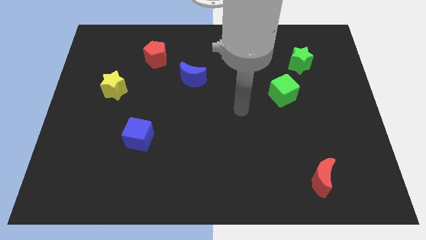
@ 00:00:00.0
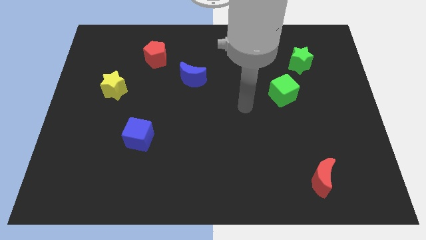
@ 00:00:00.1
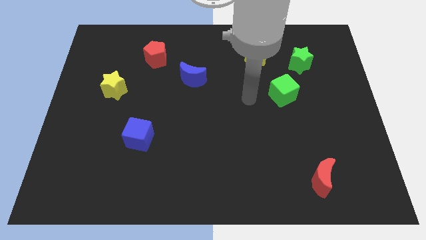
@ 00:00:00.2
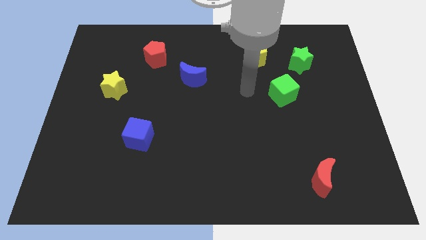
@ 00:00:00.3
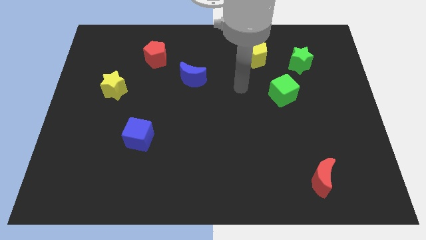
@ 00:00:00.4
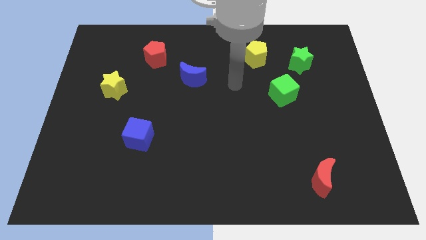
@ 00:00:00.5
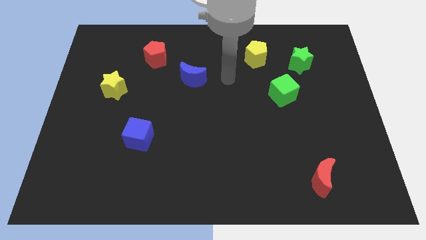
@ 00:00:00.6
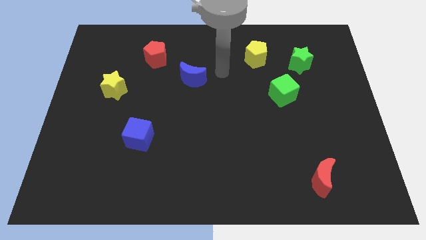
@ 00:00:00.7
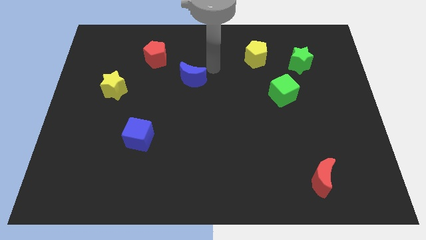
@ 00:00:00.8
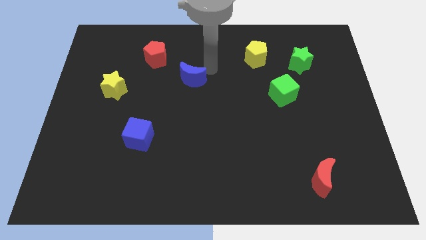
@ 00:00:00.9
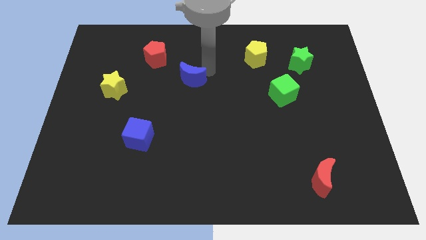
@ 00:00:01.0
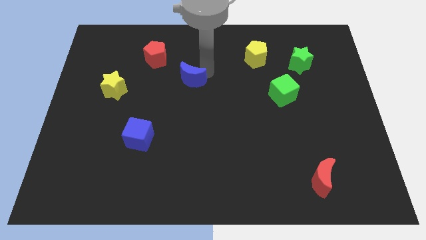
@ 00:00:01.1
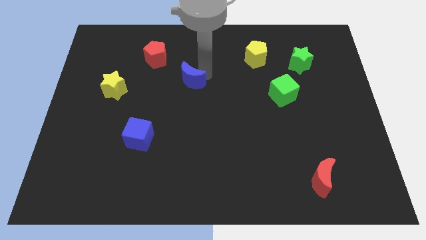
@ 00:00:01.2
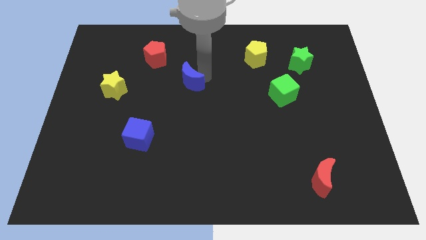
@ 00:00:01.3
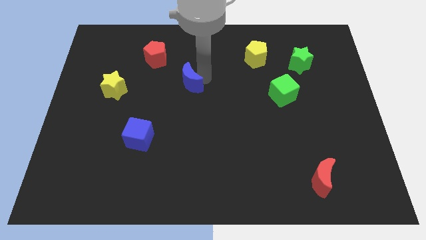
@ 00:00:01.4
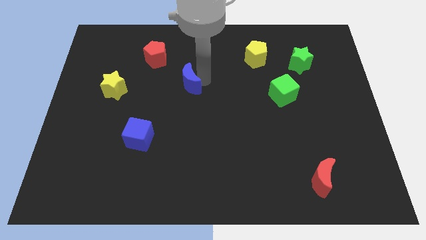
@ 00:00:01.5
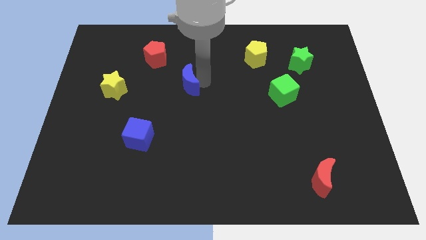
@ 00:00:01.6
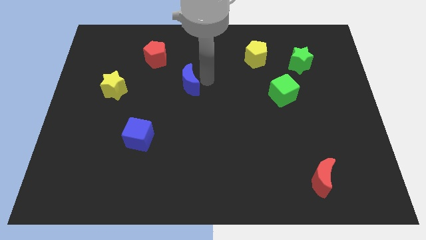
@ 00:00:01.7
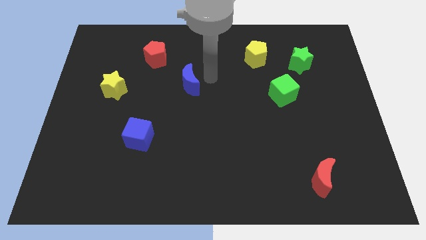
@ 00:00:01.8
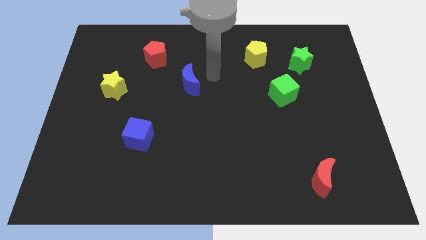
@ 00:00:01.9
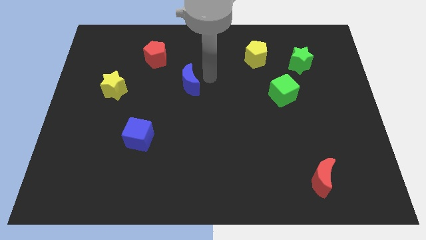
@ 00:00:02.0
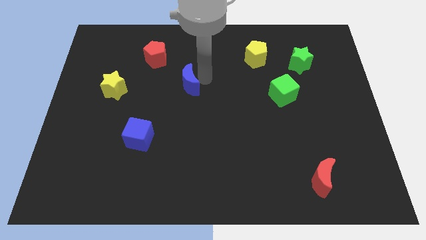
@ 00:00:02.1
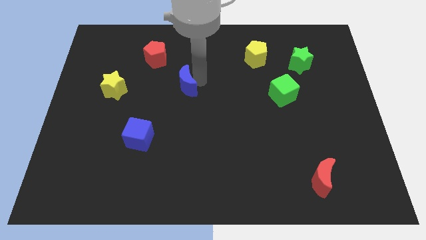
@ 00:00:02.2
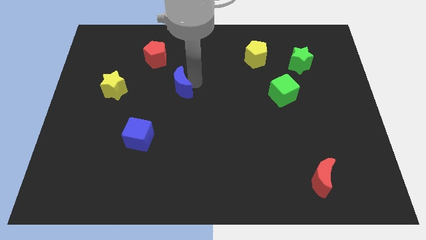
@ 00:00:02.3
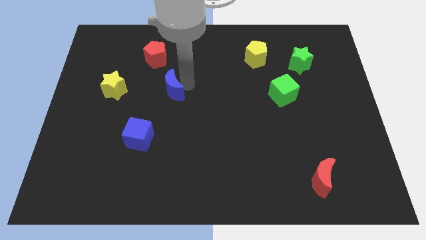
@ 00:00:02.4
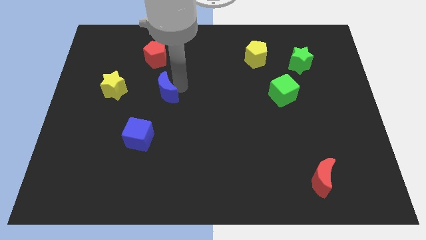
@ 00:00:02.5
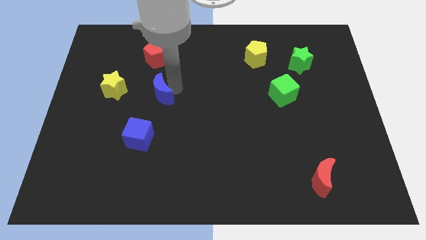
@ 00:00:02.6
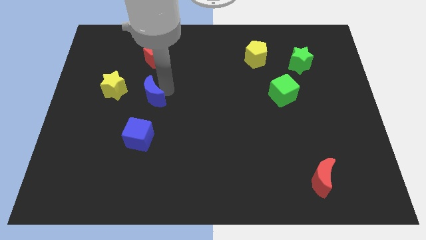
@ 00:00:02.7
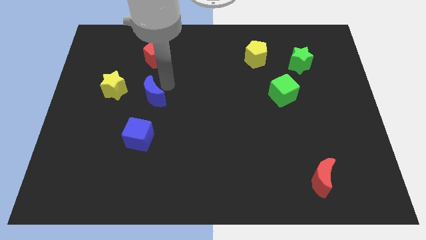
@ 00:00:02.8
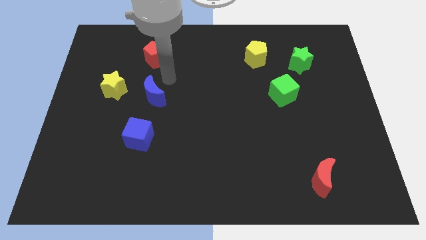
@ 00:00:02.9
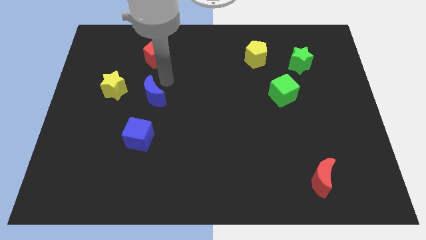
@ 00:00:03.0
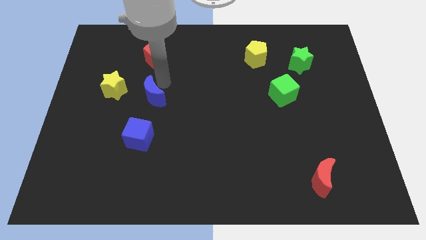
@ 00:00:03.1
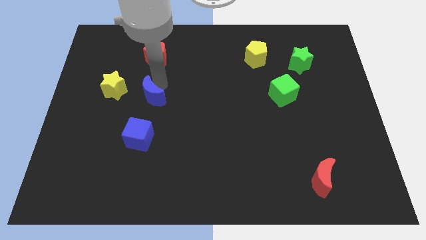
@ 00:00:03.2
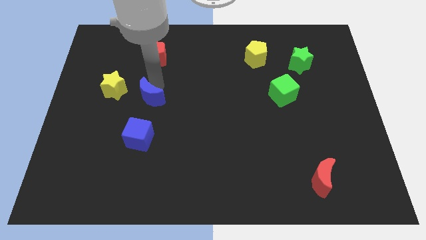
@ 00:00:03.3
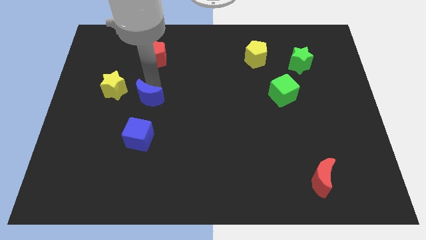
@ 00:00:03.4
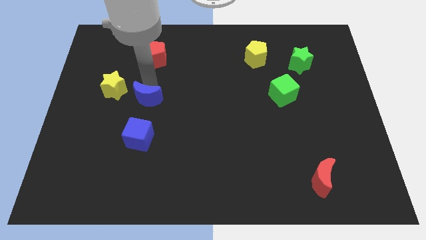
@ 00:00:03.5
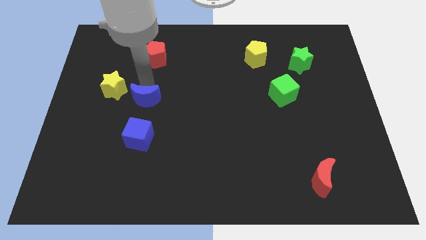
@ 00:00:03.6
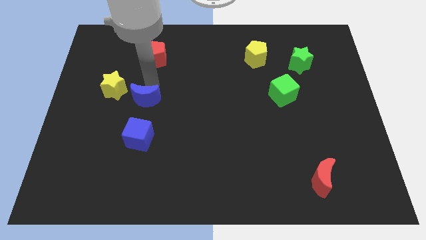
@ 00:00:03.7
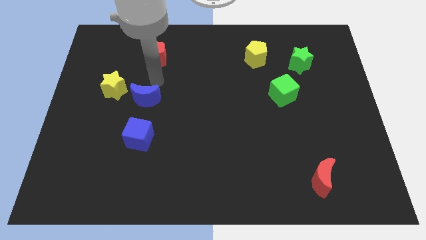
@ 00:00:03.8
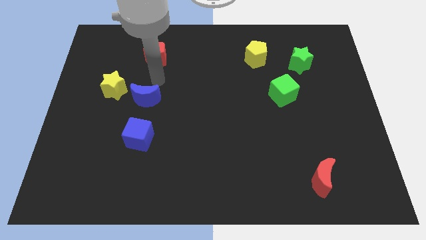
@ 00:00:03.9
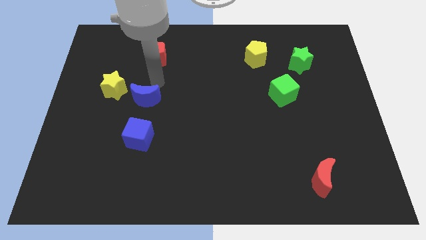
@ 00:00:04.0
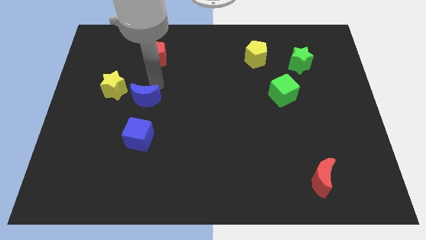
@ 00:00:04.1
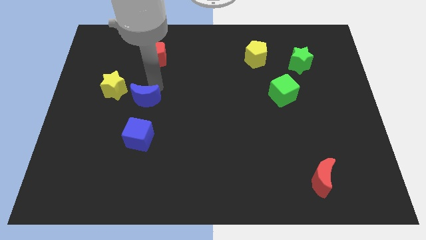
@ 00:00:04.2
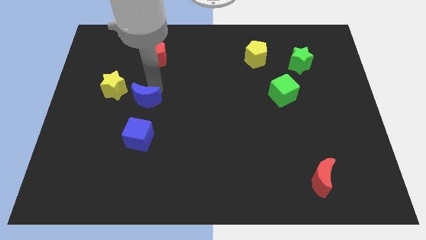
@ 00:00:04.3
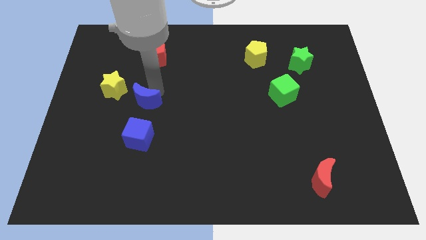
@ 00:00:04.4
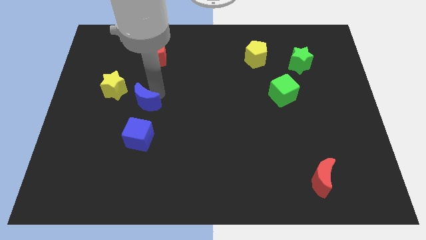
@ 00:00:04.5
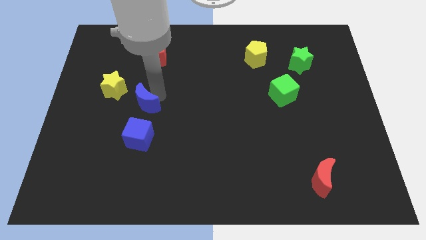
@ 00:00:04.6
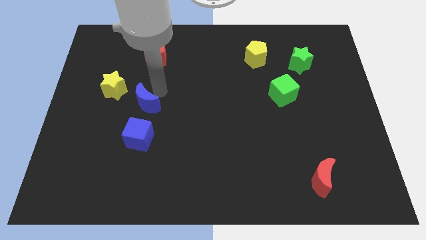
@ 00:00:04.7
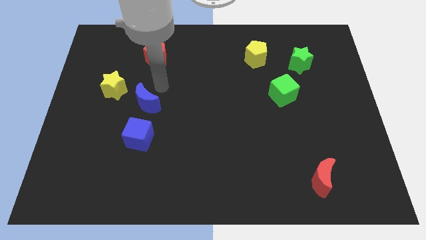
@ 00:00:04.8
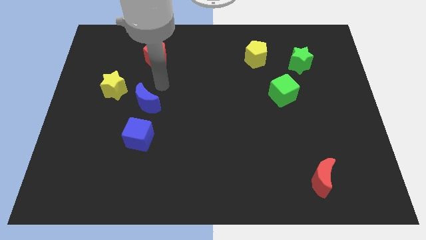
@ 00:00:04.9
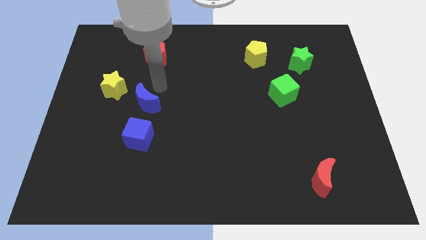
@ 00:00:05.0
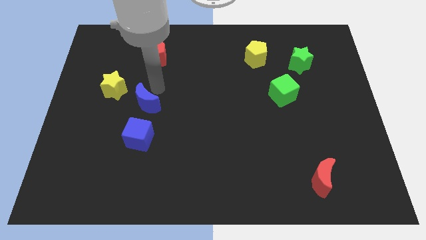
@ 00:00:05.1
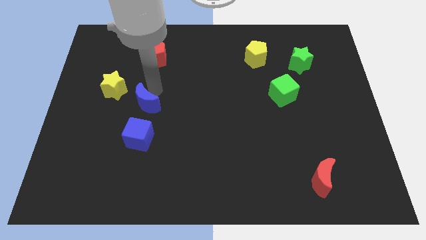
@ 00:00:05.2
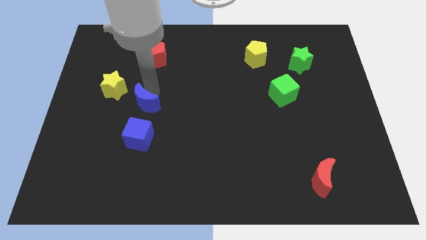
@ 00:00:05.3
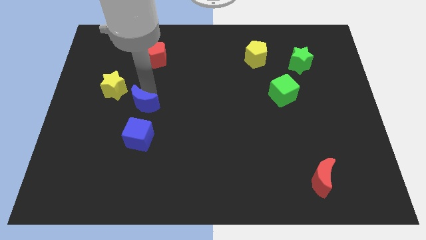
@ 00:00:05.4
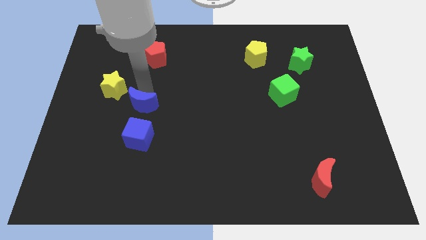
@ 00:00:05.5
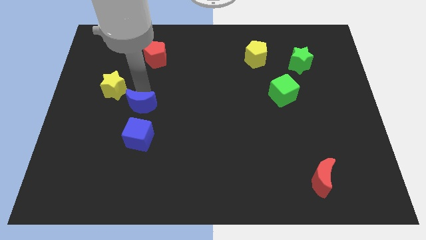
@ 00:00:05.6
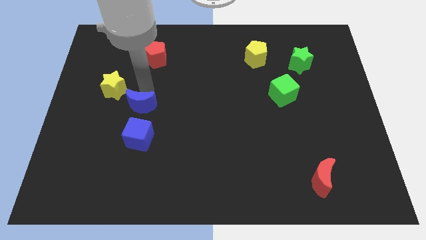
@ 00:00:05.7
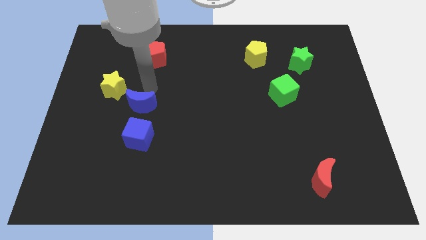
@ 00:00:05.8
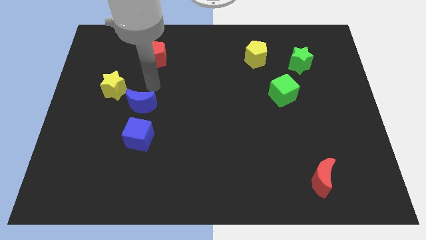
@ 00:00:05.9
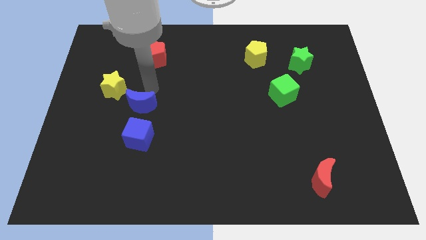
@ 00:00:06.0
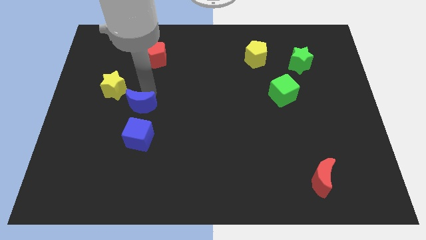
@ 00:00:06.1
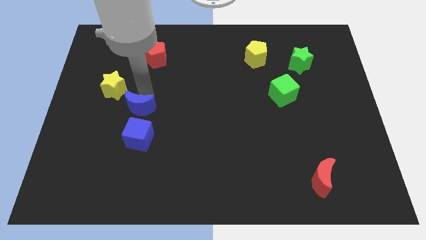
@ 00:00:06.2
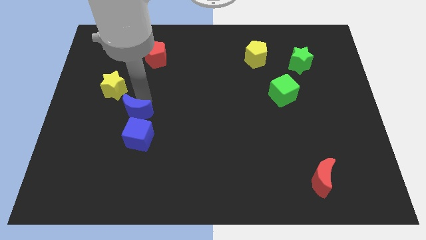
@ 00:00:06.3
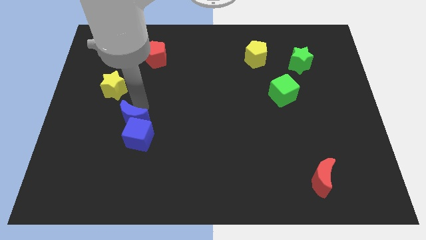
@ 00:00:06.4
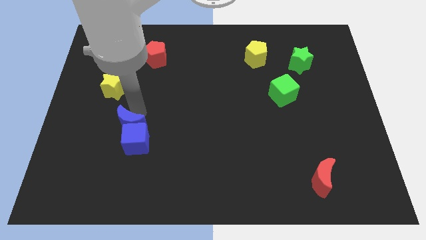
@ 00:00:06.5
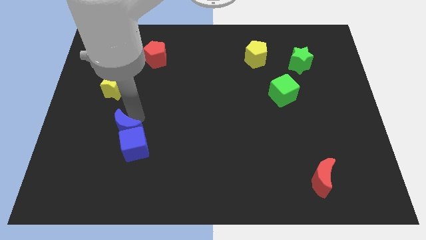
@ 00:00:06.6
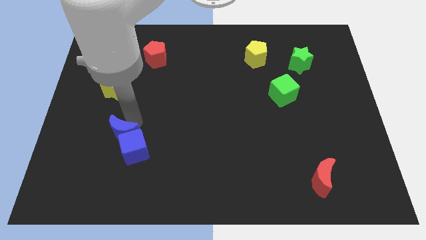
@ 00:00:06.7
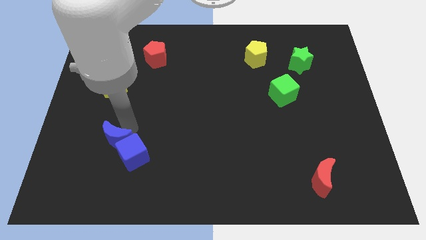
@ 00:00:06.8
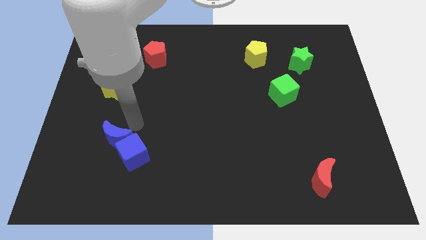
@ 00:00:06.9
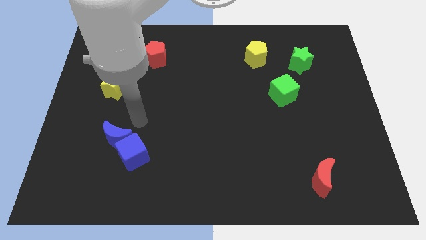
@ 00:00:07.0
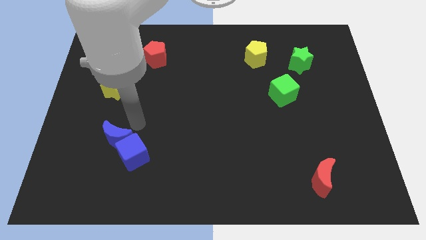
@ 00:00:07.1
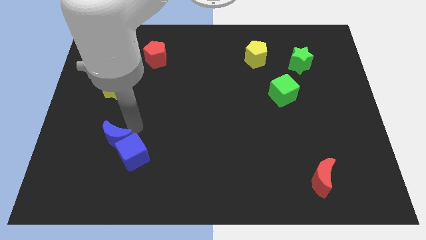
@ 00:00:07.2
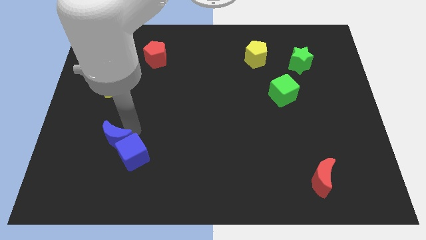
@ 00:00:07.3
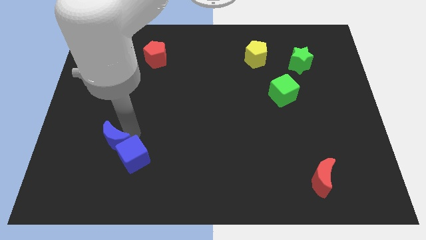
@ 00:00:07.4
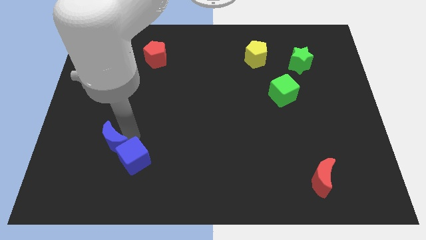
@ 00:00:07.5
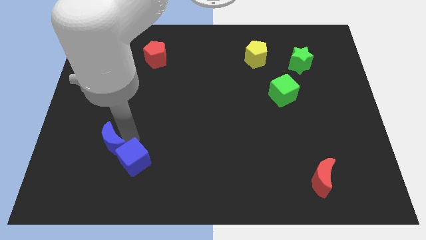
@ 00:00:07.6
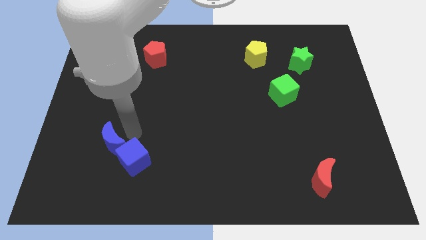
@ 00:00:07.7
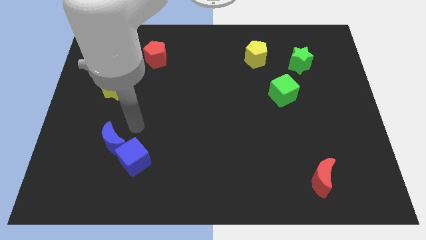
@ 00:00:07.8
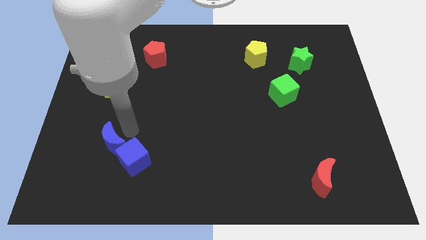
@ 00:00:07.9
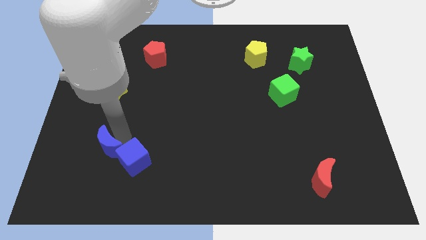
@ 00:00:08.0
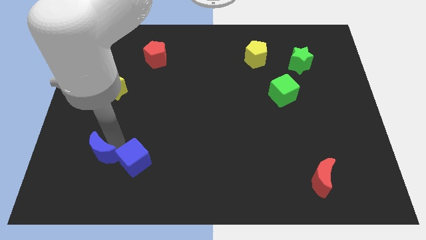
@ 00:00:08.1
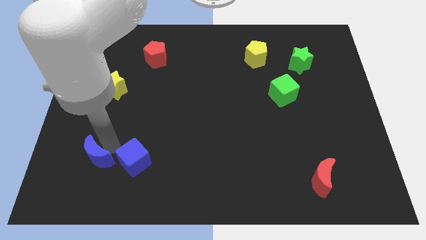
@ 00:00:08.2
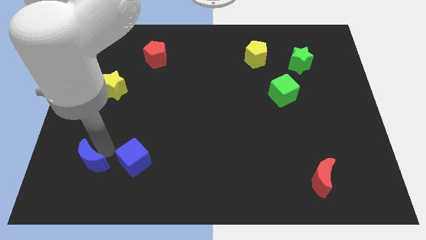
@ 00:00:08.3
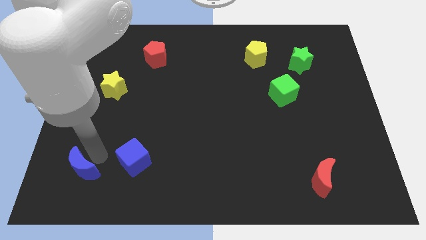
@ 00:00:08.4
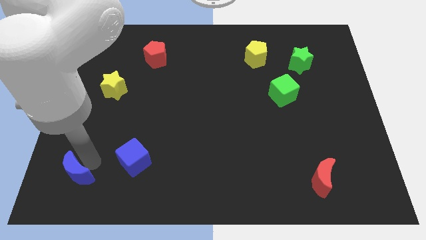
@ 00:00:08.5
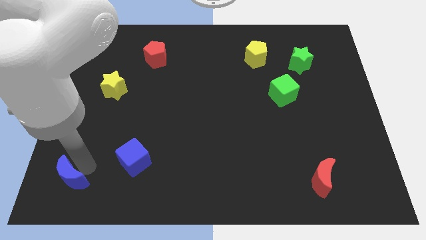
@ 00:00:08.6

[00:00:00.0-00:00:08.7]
move the blue moon to the bottom left
